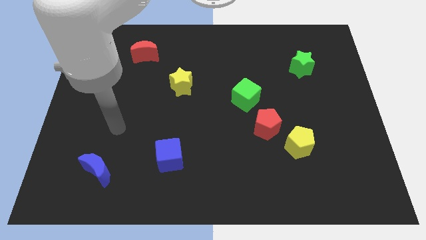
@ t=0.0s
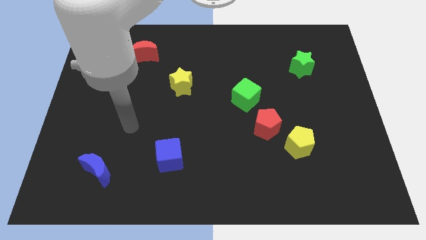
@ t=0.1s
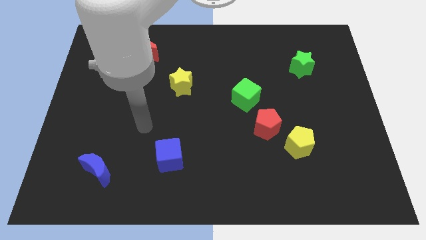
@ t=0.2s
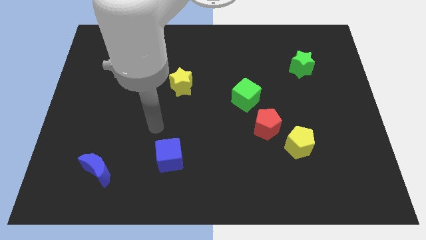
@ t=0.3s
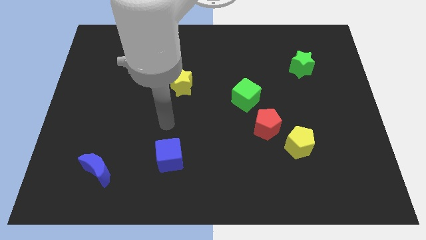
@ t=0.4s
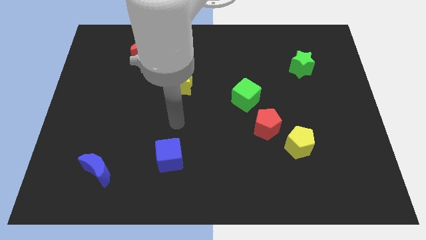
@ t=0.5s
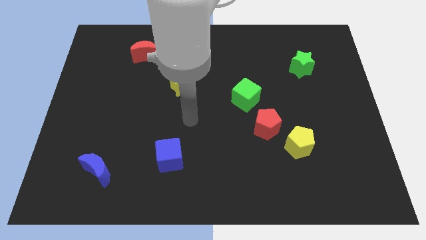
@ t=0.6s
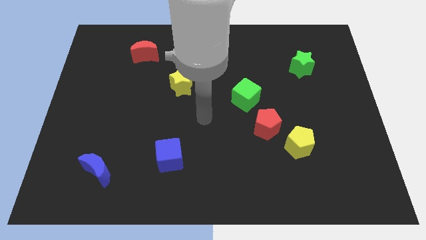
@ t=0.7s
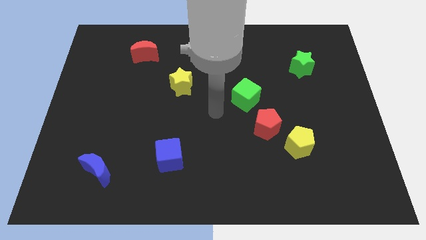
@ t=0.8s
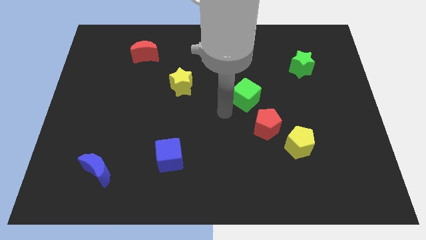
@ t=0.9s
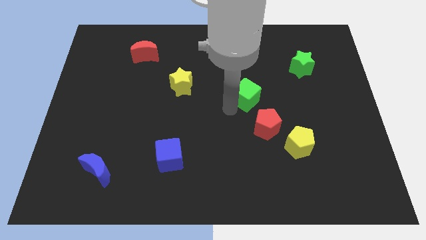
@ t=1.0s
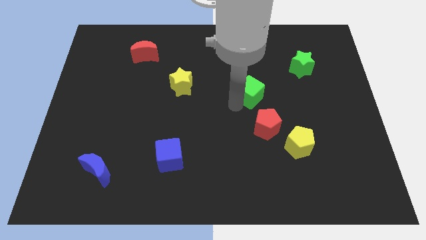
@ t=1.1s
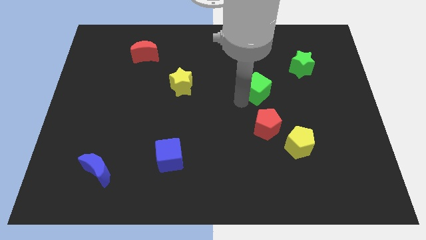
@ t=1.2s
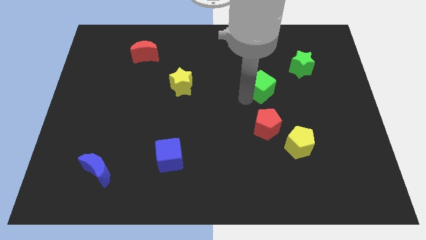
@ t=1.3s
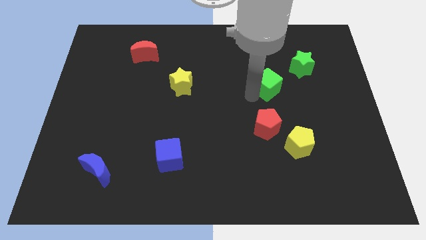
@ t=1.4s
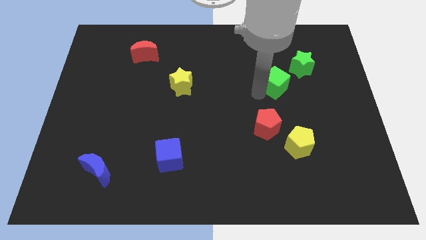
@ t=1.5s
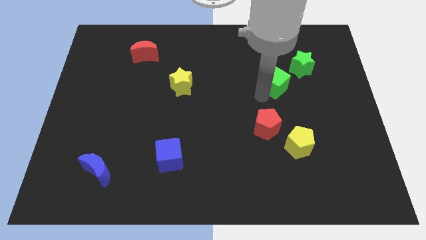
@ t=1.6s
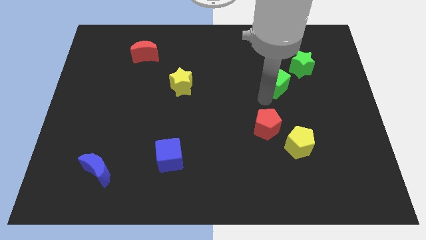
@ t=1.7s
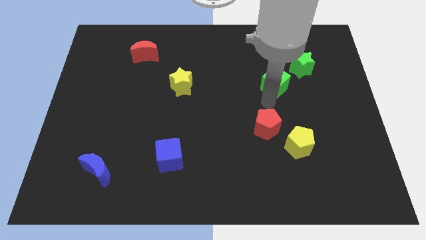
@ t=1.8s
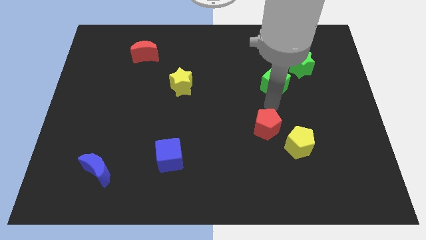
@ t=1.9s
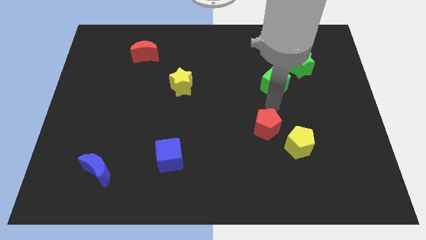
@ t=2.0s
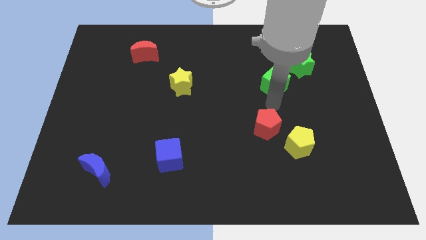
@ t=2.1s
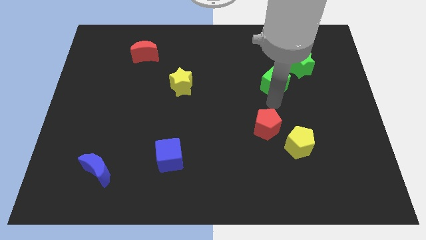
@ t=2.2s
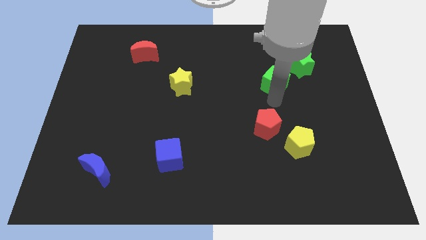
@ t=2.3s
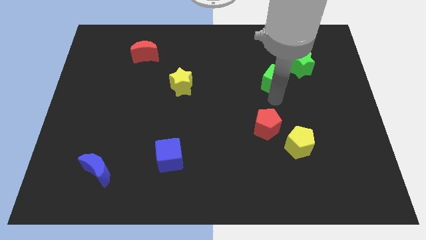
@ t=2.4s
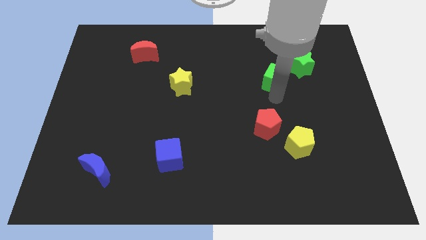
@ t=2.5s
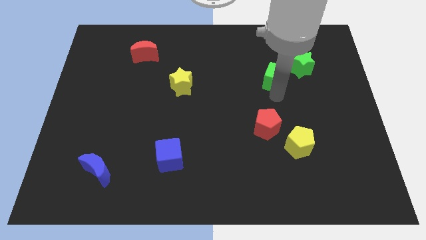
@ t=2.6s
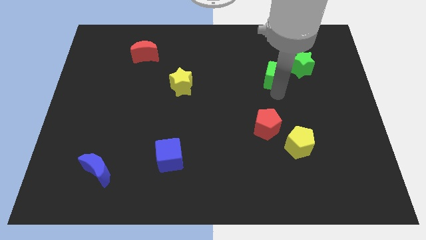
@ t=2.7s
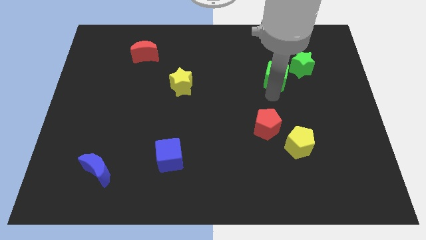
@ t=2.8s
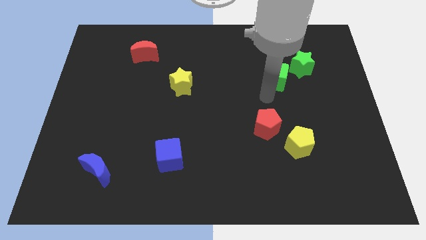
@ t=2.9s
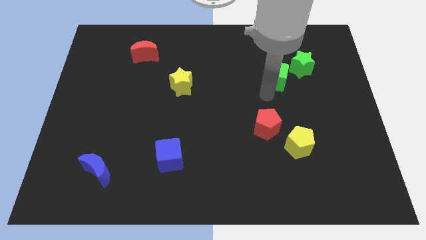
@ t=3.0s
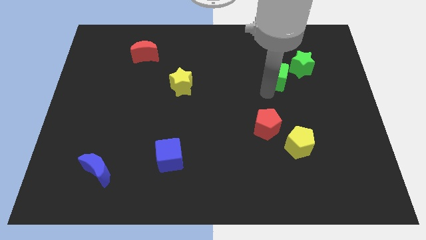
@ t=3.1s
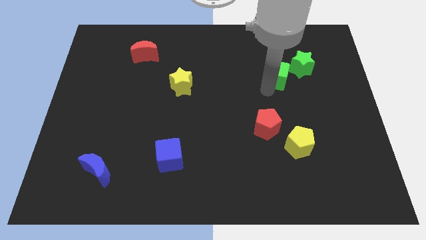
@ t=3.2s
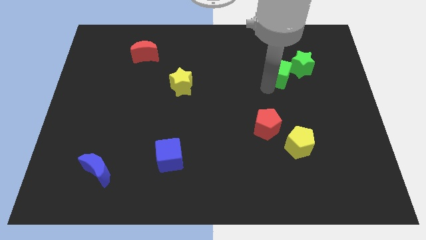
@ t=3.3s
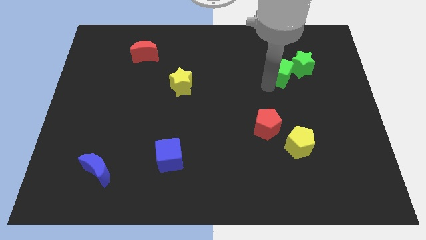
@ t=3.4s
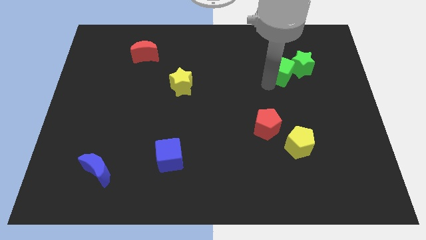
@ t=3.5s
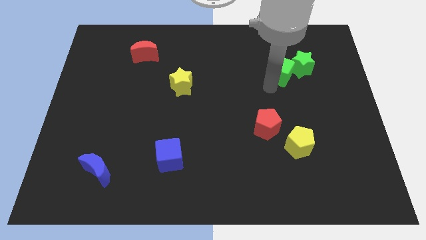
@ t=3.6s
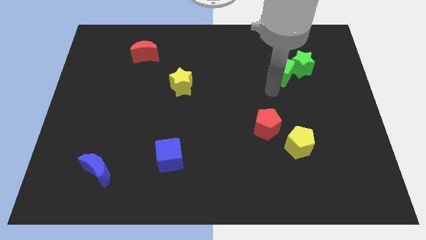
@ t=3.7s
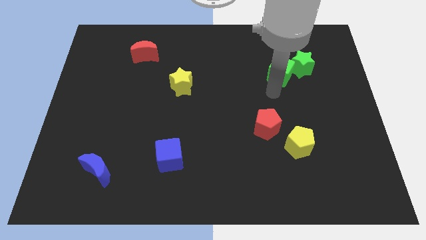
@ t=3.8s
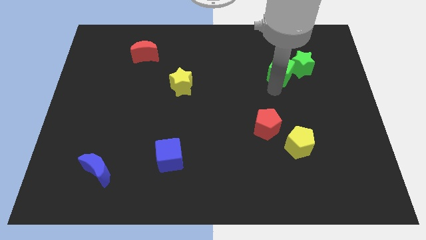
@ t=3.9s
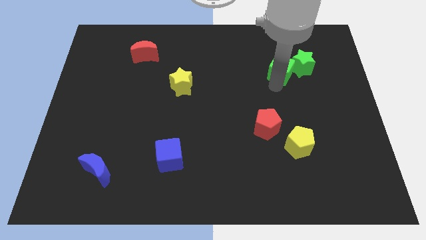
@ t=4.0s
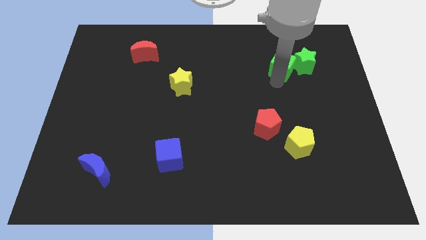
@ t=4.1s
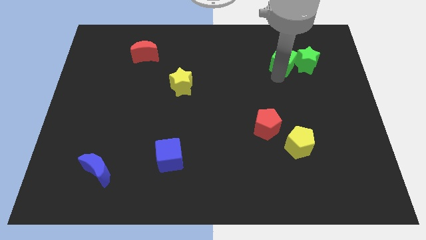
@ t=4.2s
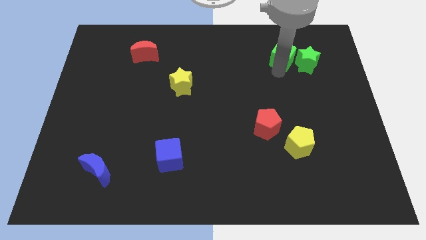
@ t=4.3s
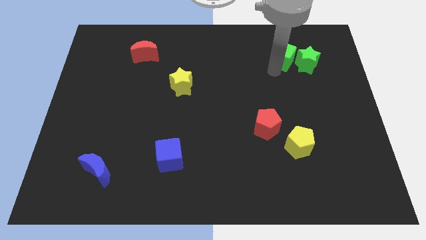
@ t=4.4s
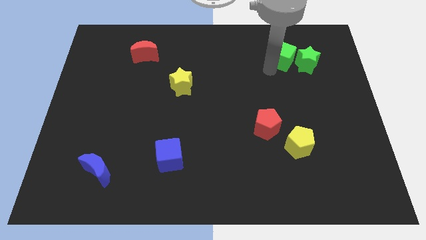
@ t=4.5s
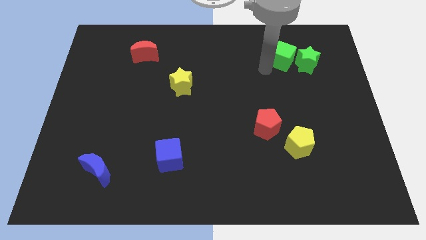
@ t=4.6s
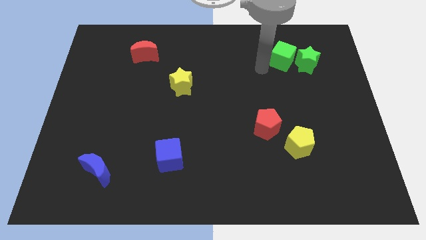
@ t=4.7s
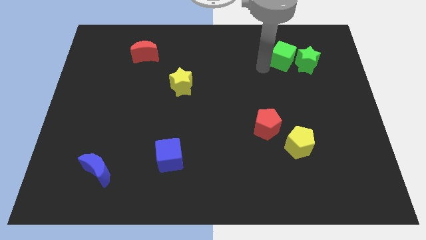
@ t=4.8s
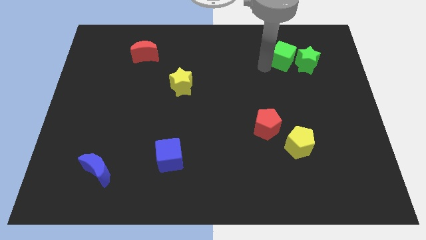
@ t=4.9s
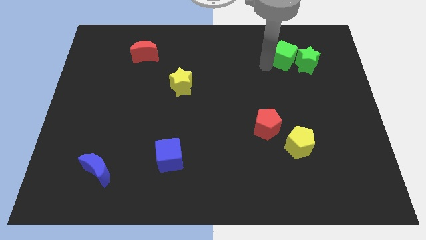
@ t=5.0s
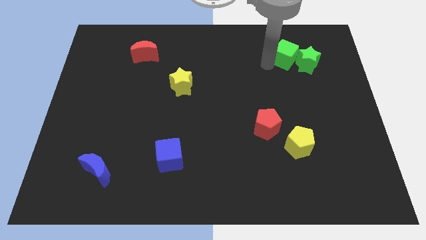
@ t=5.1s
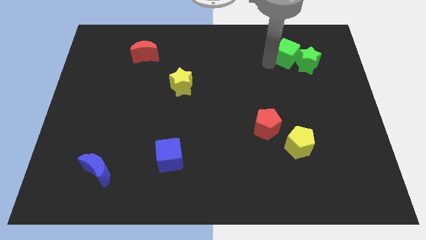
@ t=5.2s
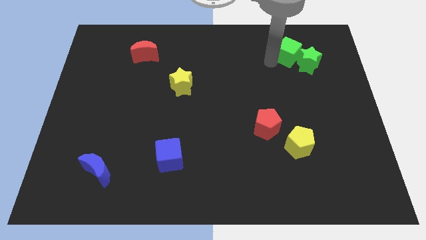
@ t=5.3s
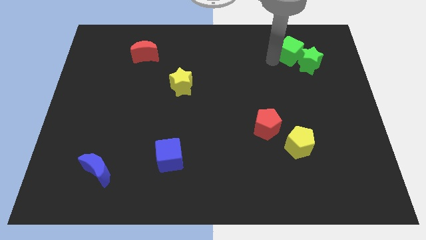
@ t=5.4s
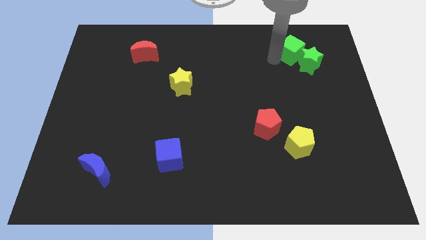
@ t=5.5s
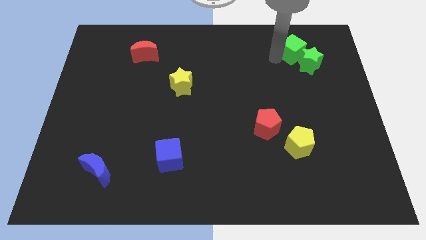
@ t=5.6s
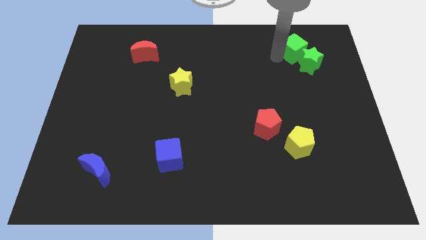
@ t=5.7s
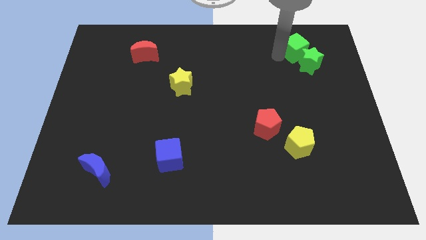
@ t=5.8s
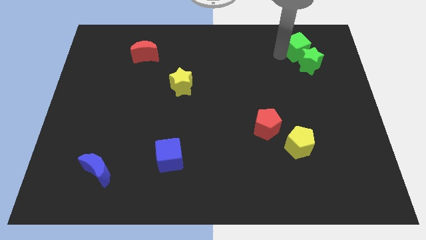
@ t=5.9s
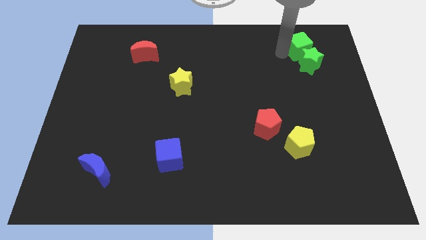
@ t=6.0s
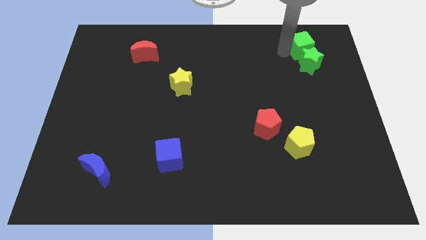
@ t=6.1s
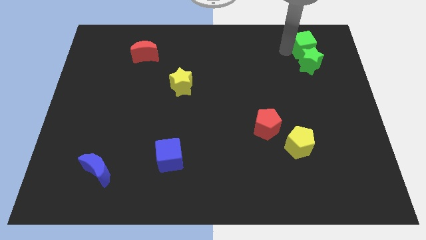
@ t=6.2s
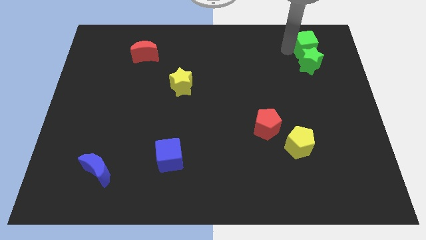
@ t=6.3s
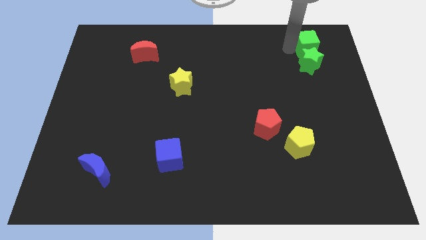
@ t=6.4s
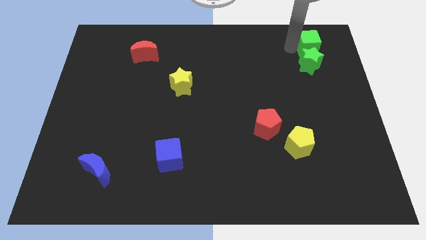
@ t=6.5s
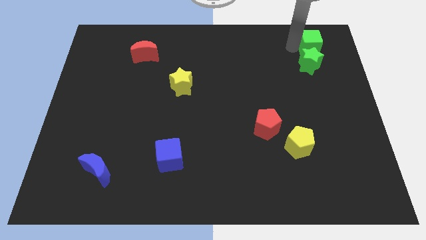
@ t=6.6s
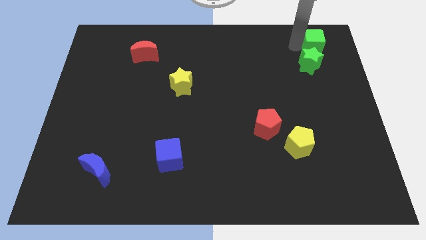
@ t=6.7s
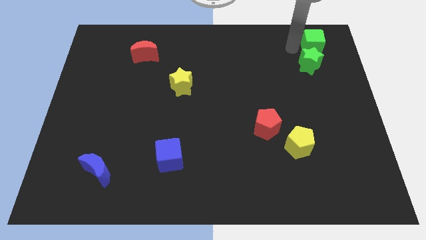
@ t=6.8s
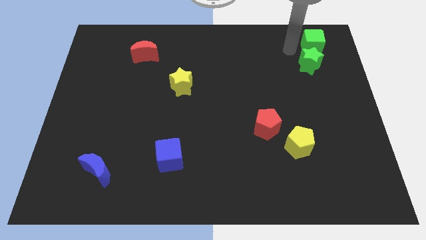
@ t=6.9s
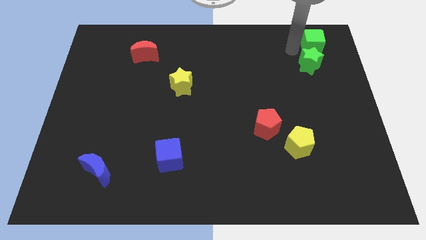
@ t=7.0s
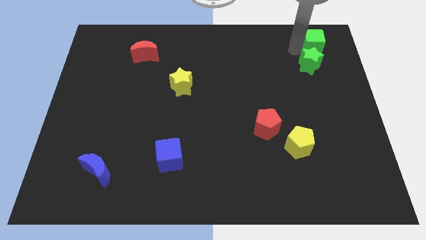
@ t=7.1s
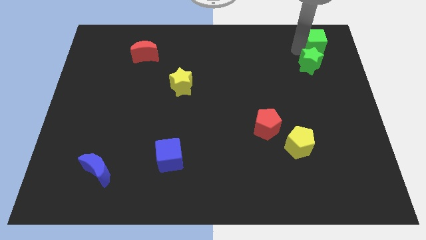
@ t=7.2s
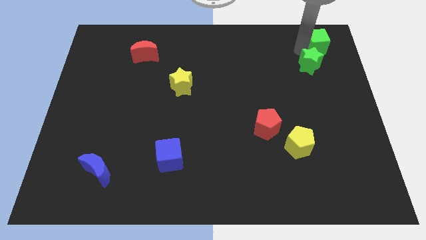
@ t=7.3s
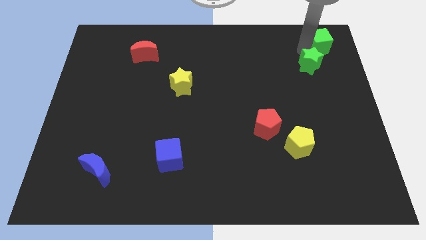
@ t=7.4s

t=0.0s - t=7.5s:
slide the green cube to the top right of the board
